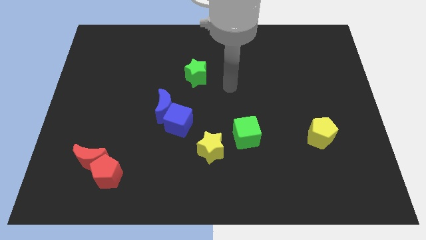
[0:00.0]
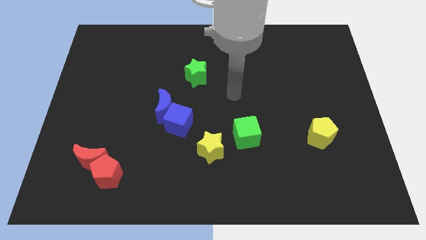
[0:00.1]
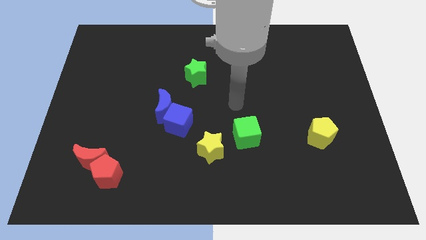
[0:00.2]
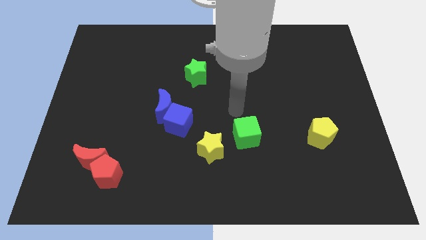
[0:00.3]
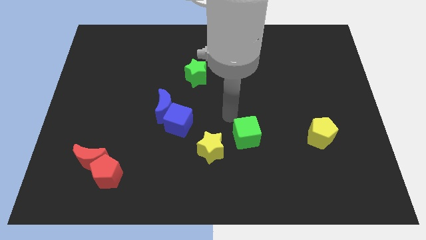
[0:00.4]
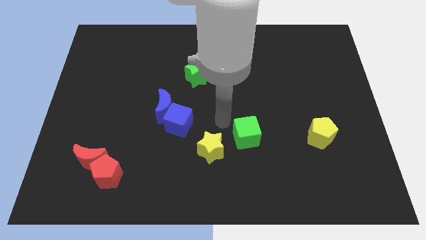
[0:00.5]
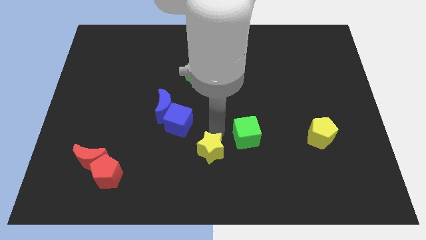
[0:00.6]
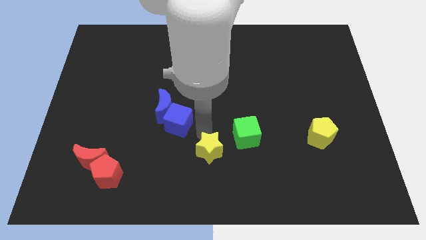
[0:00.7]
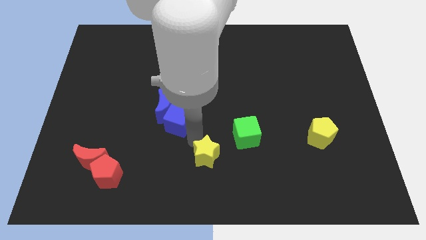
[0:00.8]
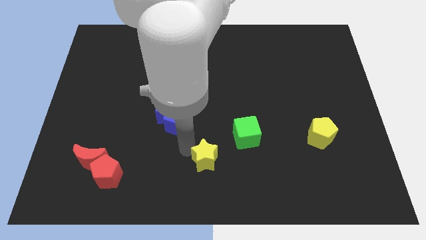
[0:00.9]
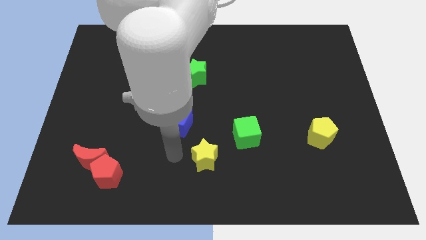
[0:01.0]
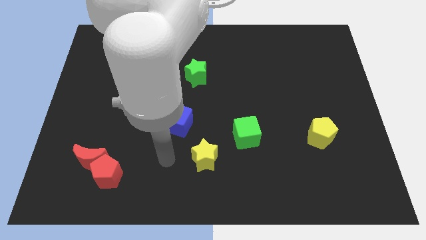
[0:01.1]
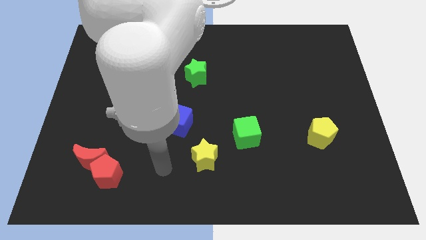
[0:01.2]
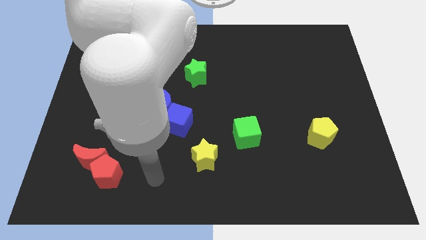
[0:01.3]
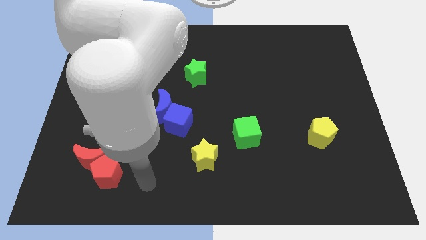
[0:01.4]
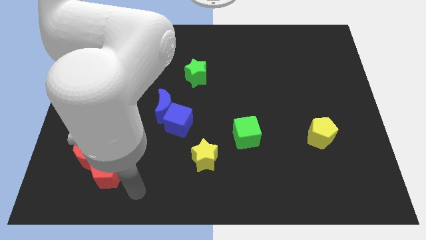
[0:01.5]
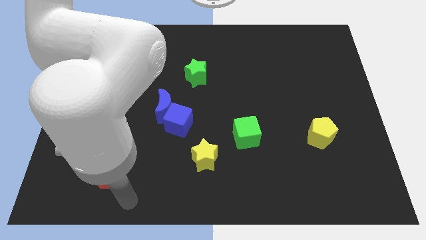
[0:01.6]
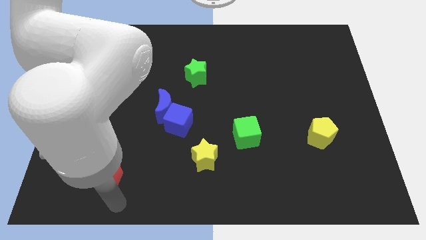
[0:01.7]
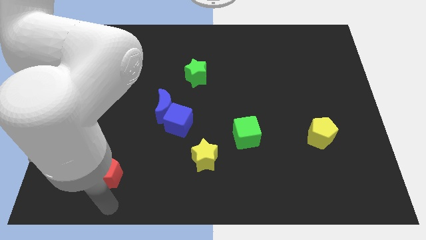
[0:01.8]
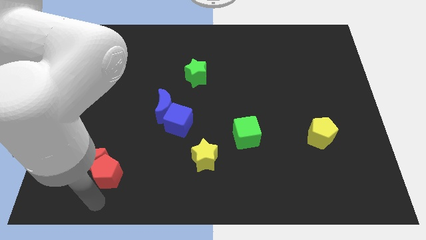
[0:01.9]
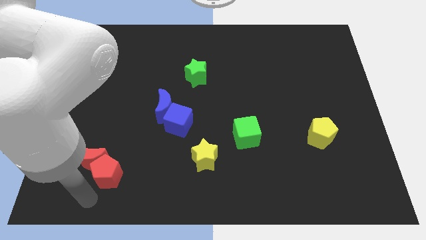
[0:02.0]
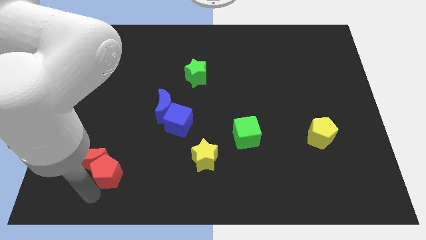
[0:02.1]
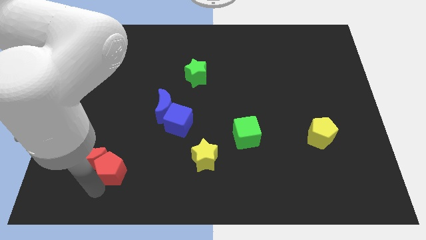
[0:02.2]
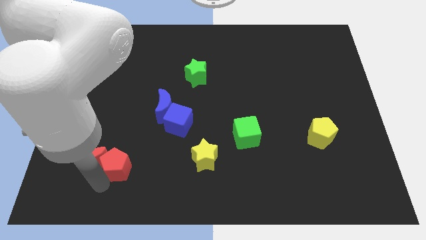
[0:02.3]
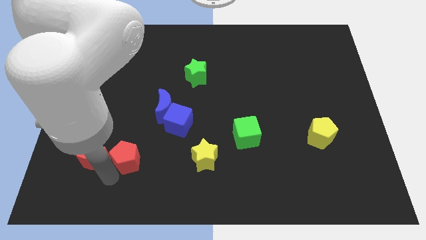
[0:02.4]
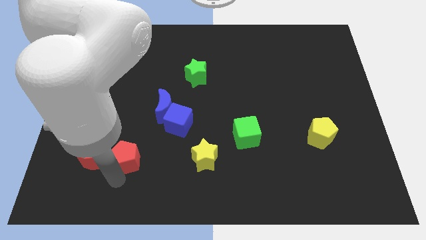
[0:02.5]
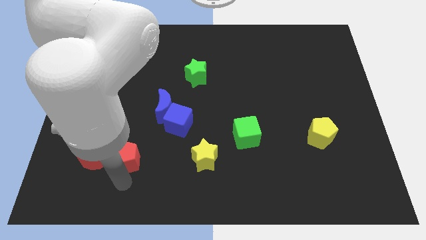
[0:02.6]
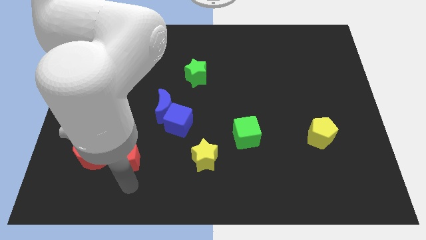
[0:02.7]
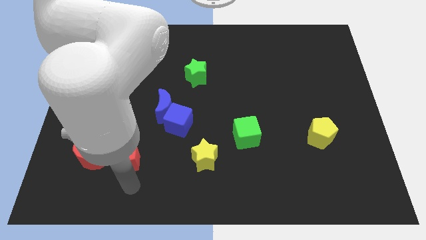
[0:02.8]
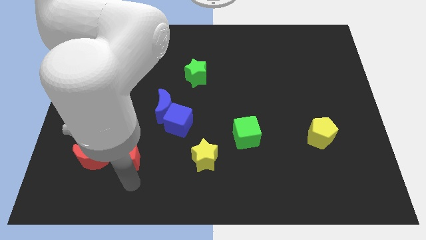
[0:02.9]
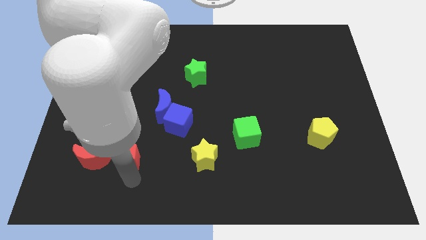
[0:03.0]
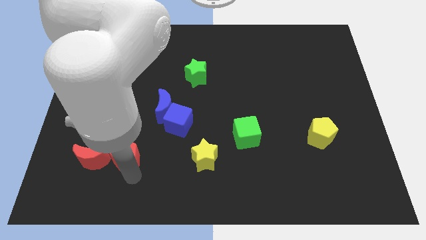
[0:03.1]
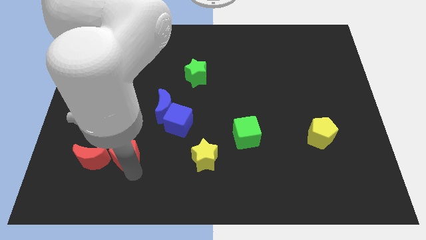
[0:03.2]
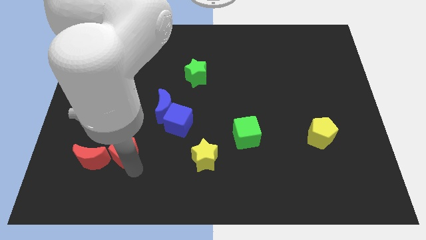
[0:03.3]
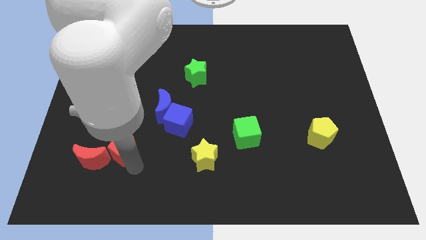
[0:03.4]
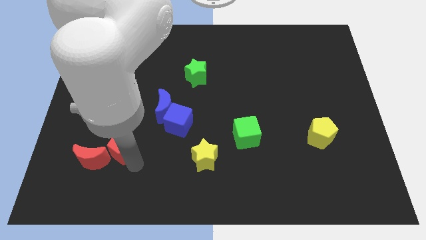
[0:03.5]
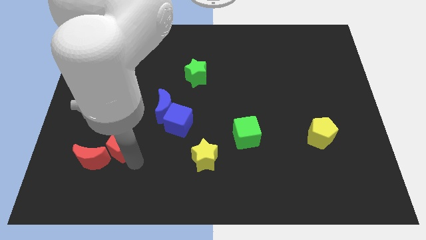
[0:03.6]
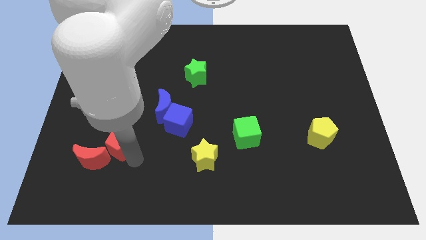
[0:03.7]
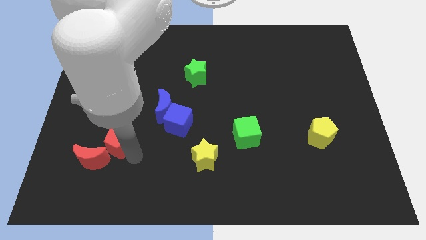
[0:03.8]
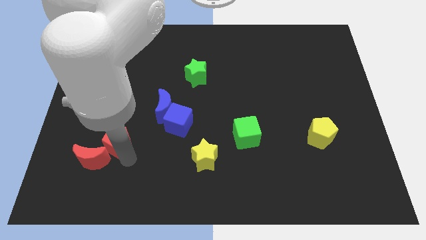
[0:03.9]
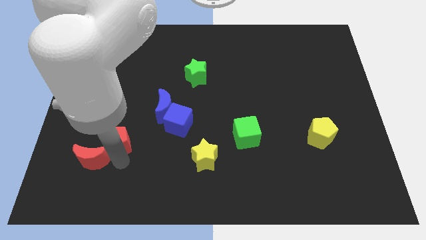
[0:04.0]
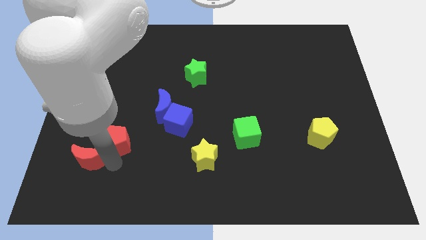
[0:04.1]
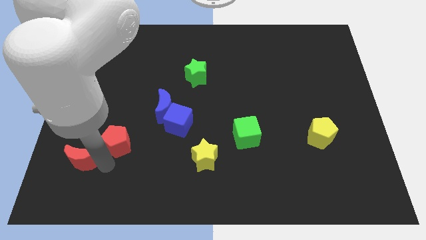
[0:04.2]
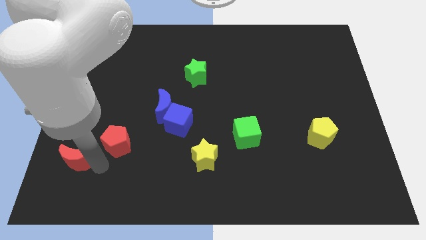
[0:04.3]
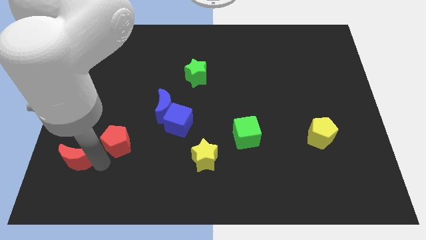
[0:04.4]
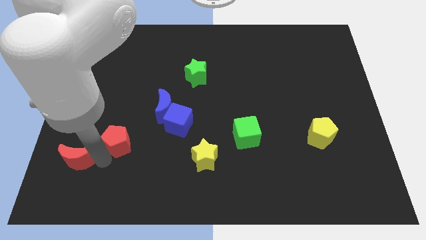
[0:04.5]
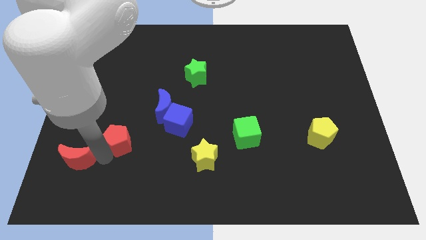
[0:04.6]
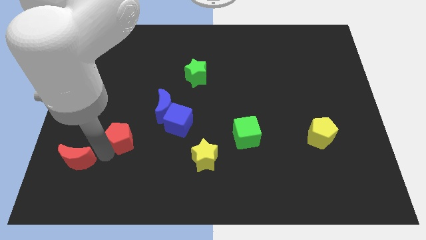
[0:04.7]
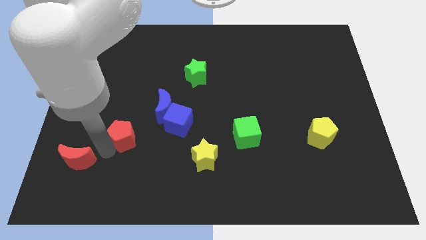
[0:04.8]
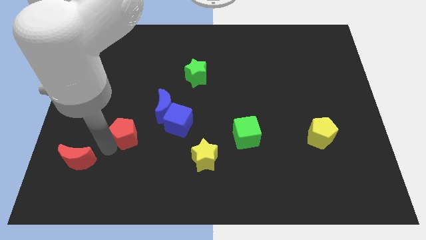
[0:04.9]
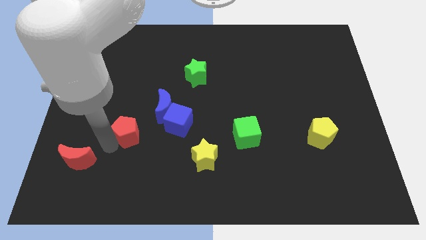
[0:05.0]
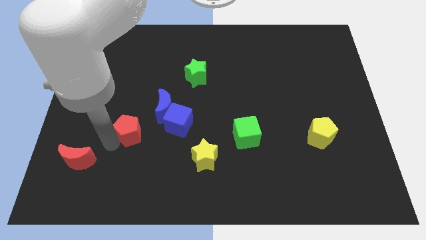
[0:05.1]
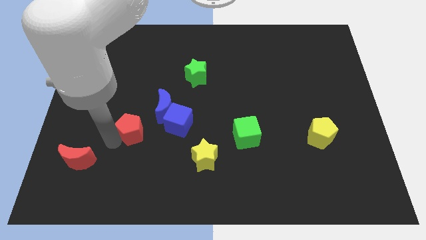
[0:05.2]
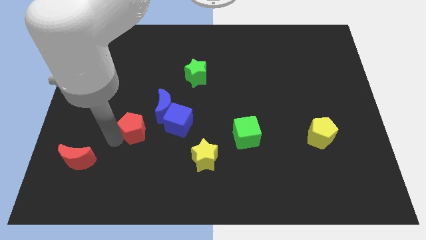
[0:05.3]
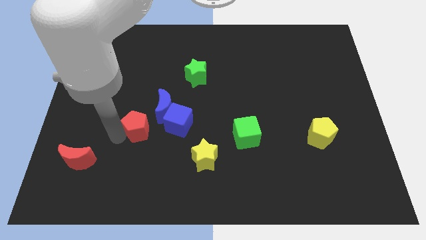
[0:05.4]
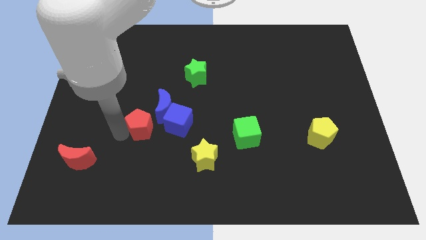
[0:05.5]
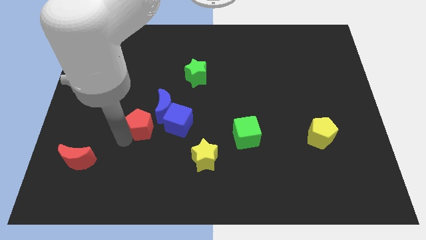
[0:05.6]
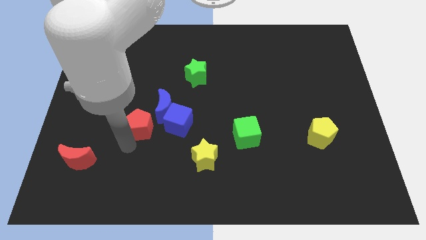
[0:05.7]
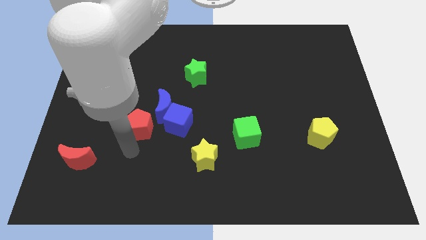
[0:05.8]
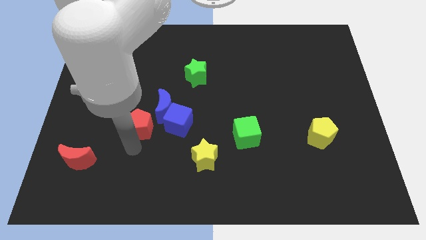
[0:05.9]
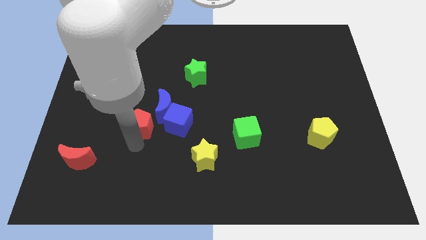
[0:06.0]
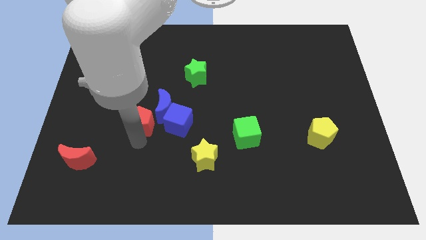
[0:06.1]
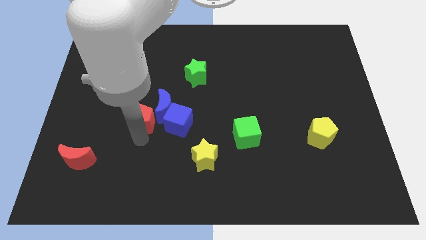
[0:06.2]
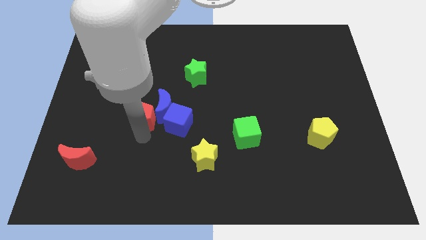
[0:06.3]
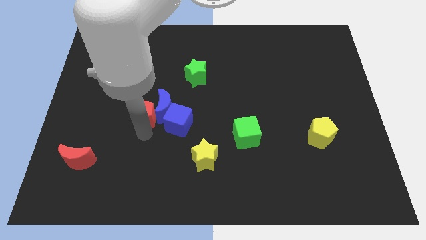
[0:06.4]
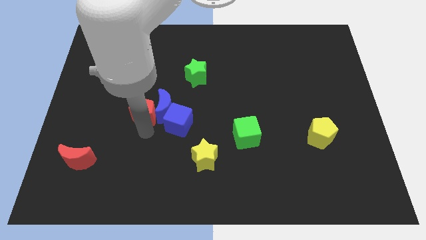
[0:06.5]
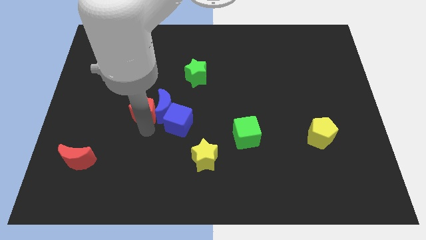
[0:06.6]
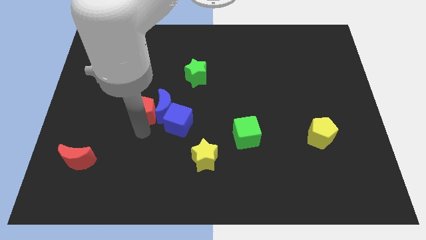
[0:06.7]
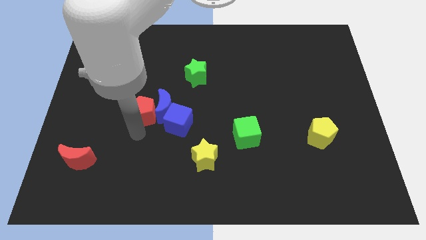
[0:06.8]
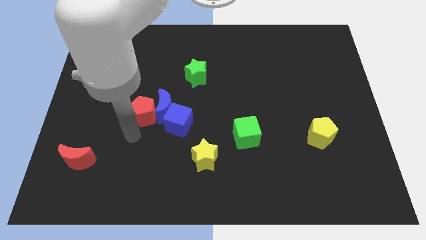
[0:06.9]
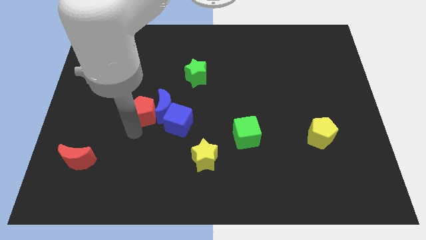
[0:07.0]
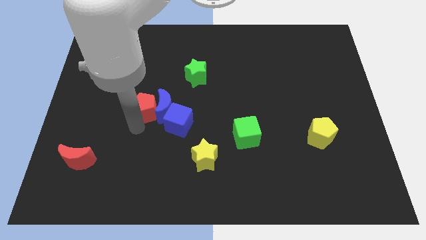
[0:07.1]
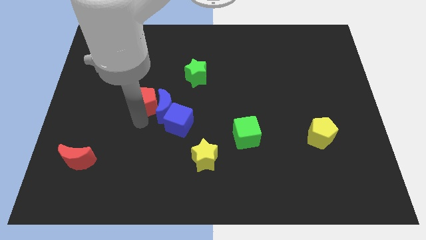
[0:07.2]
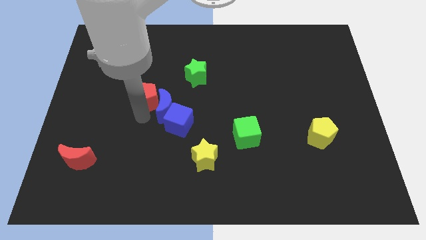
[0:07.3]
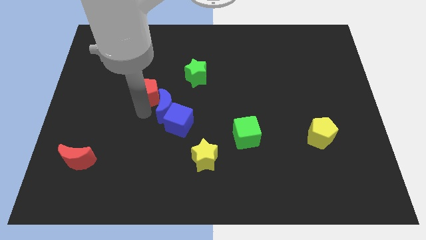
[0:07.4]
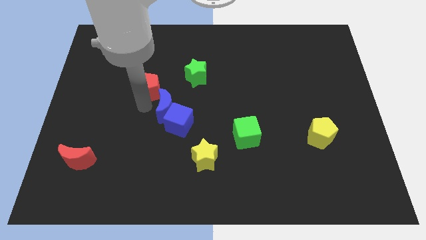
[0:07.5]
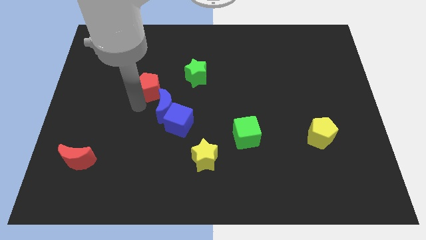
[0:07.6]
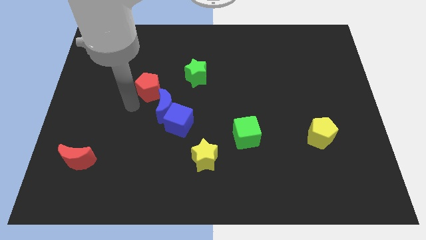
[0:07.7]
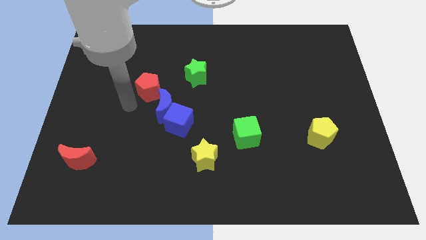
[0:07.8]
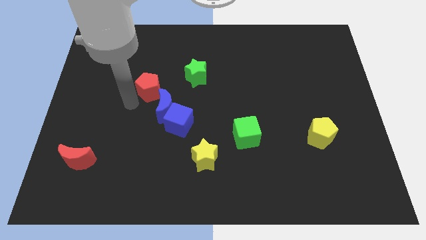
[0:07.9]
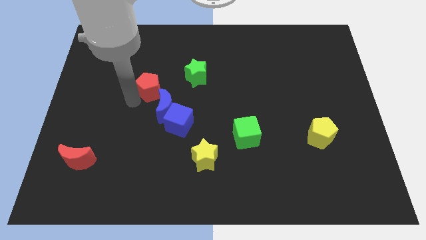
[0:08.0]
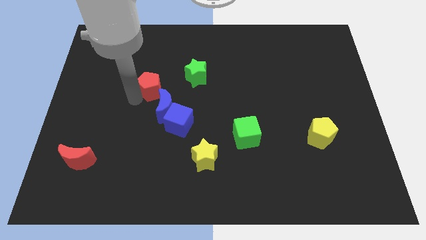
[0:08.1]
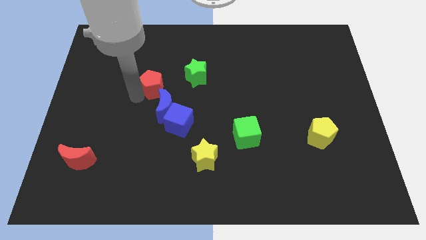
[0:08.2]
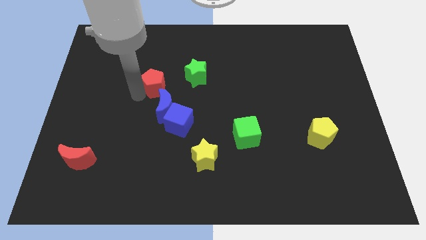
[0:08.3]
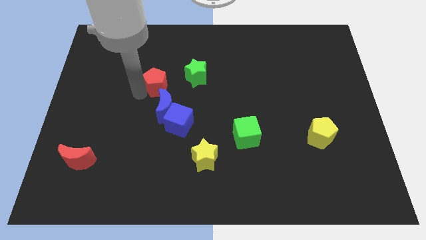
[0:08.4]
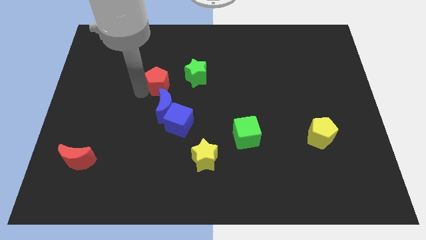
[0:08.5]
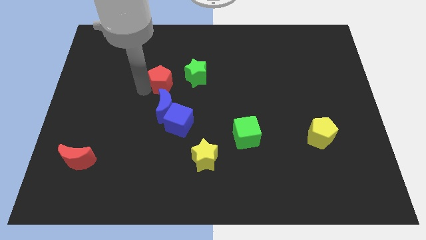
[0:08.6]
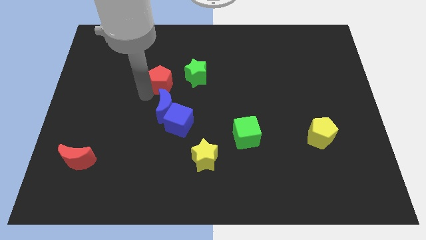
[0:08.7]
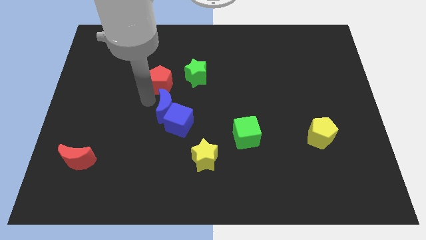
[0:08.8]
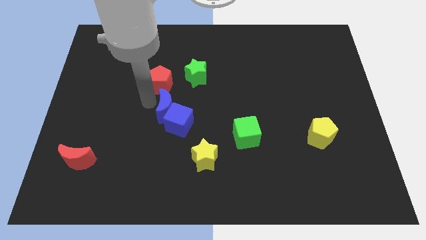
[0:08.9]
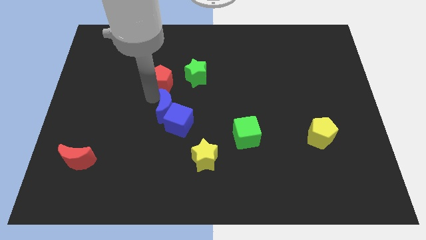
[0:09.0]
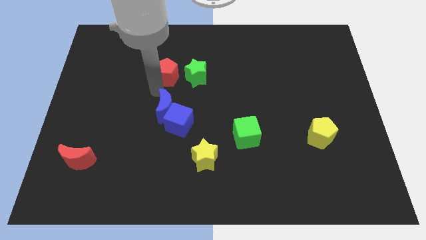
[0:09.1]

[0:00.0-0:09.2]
slide the red pentagon to the top left of the green star
